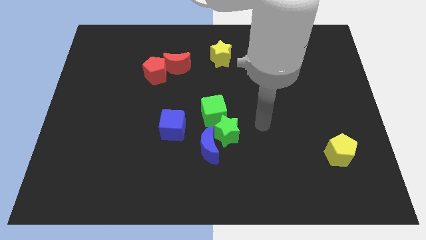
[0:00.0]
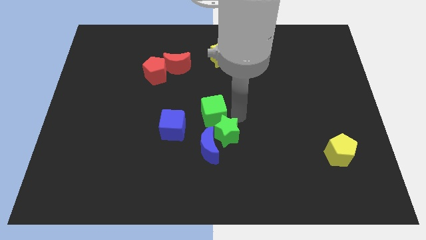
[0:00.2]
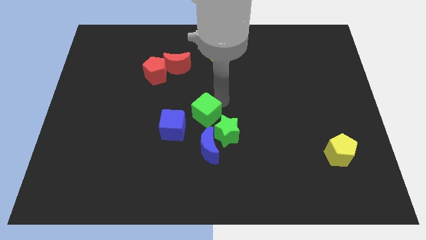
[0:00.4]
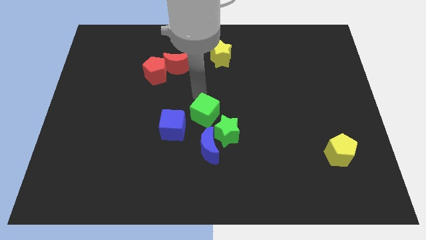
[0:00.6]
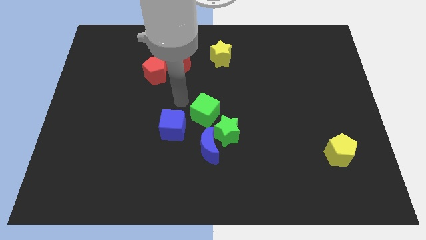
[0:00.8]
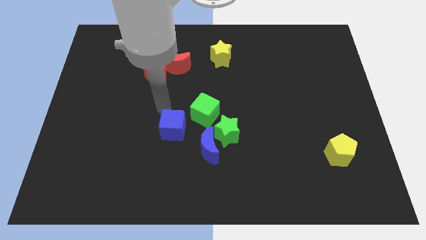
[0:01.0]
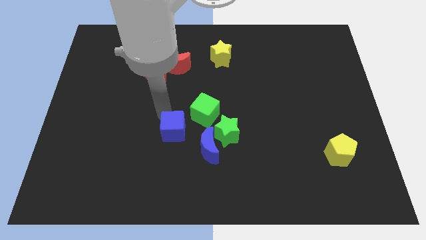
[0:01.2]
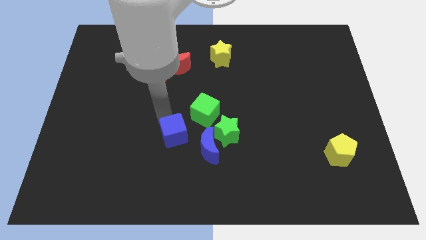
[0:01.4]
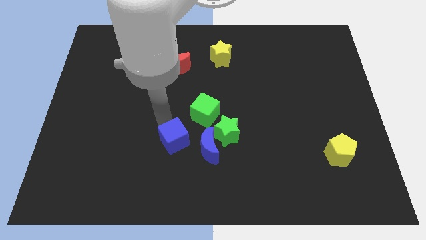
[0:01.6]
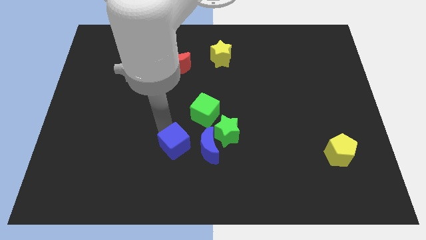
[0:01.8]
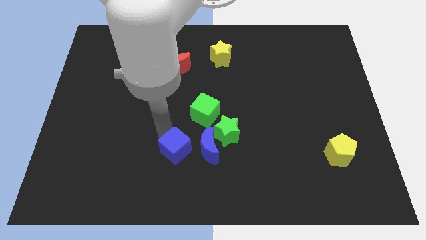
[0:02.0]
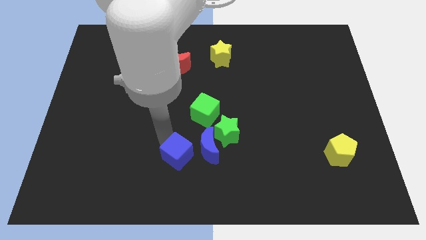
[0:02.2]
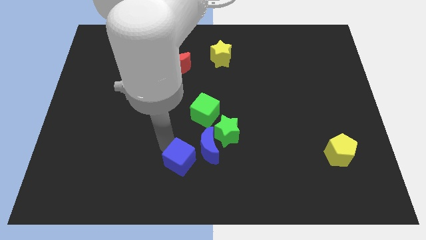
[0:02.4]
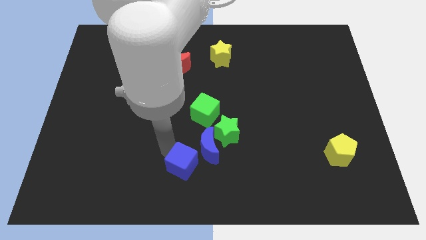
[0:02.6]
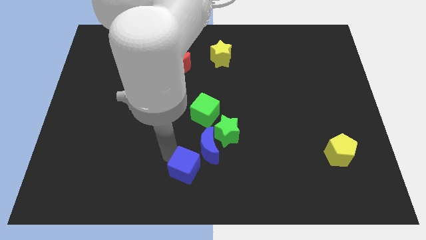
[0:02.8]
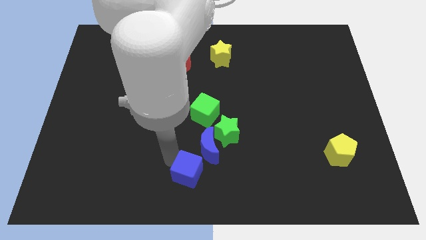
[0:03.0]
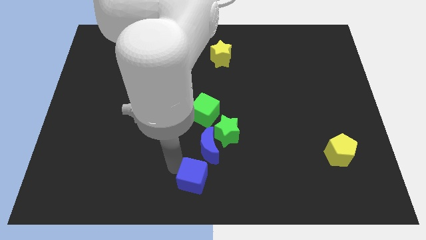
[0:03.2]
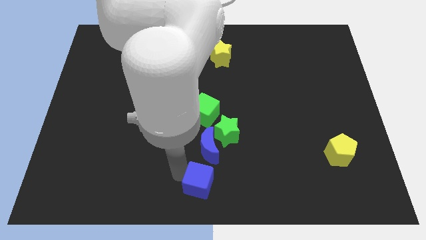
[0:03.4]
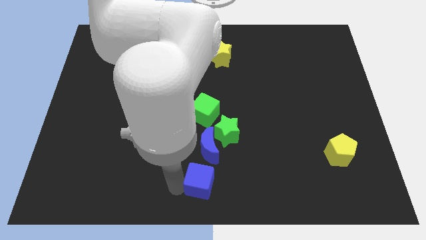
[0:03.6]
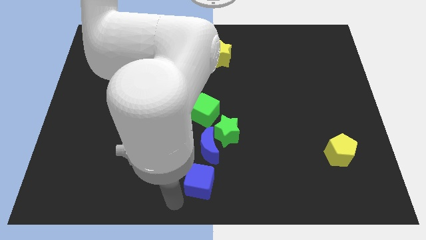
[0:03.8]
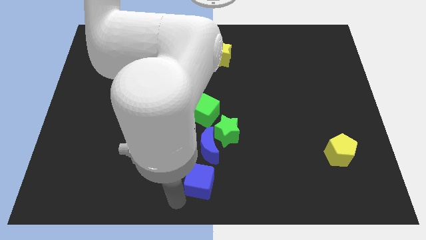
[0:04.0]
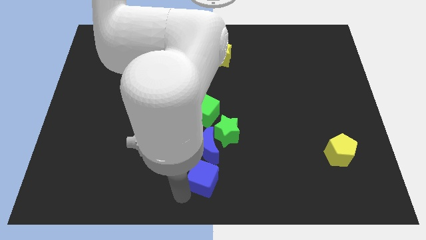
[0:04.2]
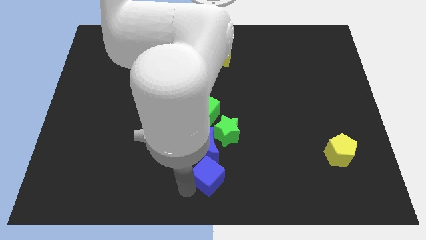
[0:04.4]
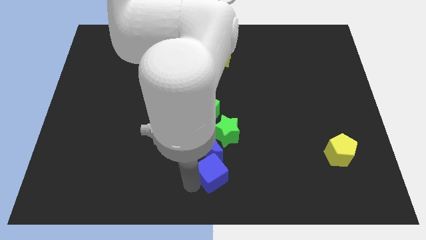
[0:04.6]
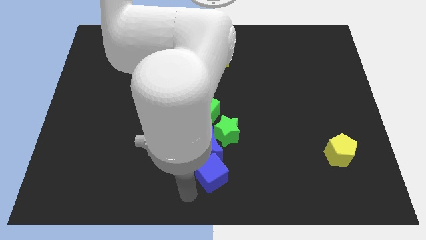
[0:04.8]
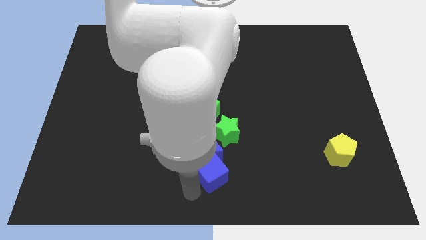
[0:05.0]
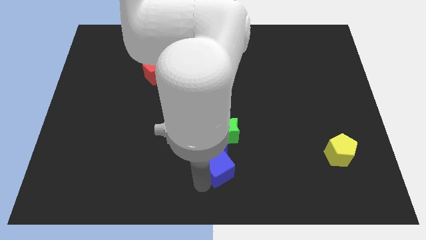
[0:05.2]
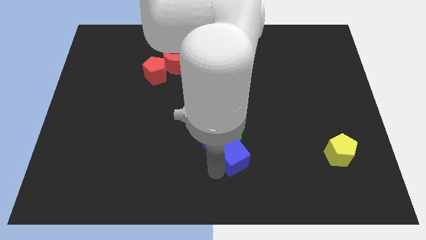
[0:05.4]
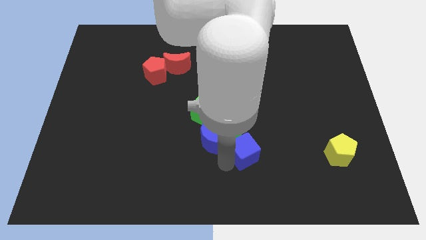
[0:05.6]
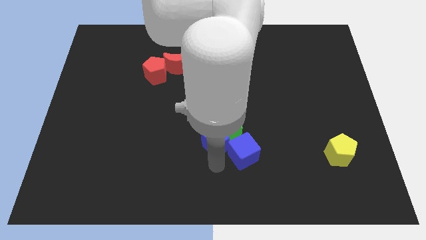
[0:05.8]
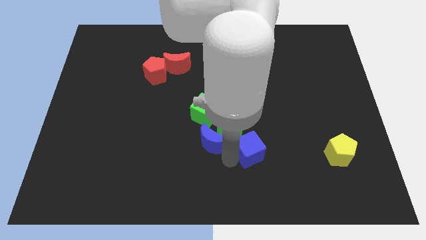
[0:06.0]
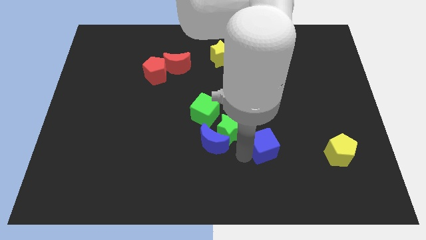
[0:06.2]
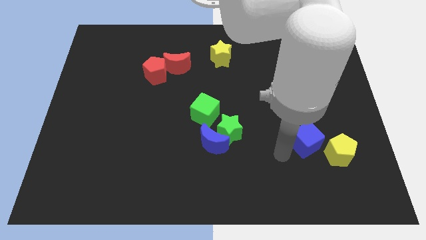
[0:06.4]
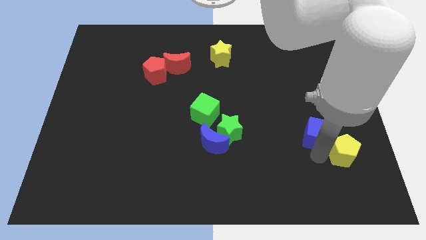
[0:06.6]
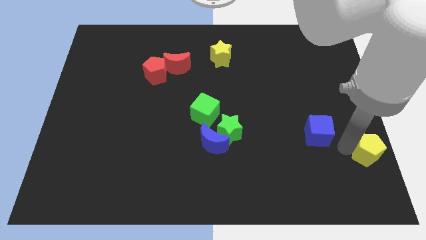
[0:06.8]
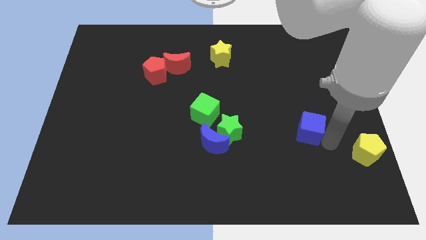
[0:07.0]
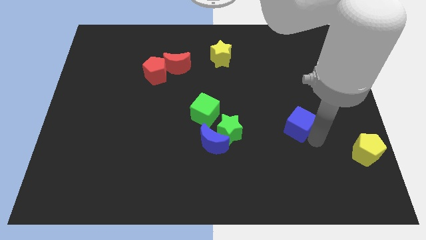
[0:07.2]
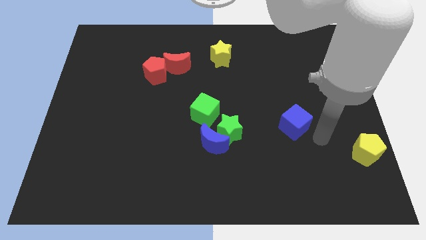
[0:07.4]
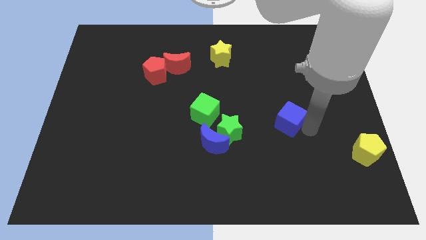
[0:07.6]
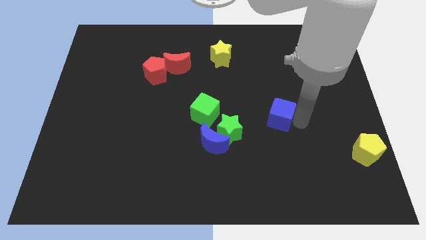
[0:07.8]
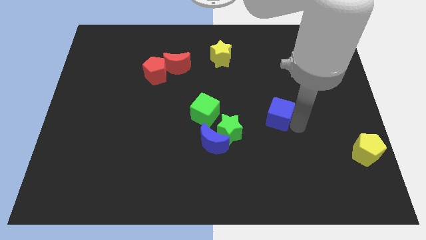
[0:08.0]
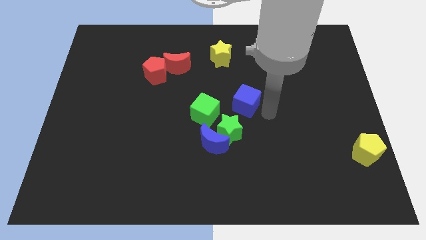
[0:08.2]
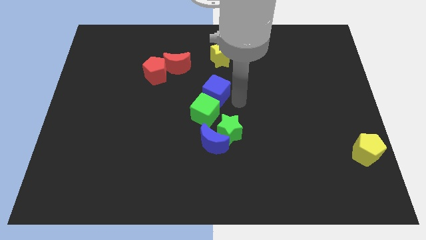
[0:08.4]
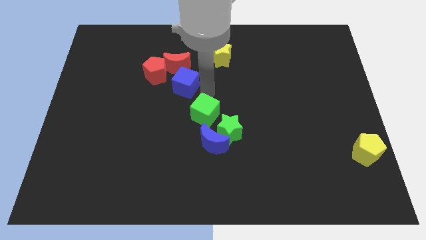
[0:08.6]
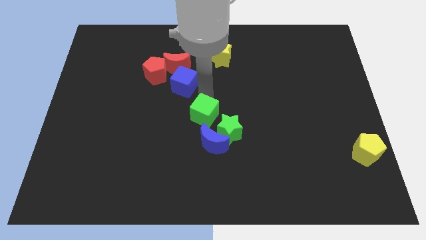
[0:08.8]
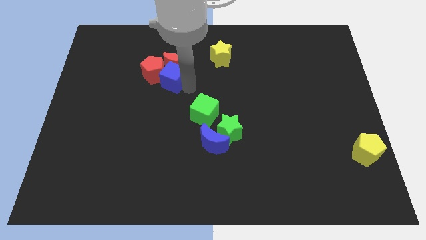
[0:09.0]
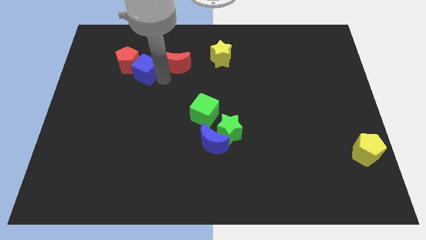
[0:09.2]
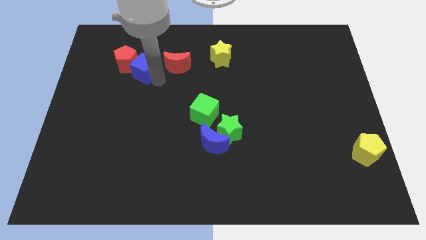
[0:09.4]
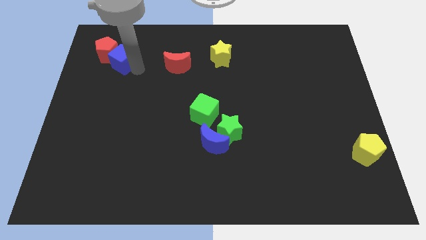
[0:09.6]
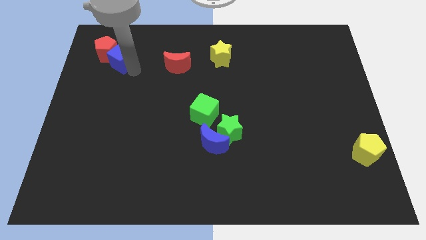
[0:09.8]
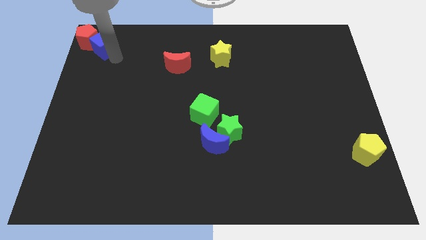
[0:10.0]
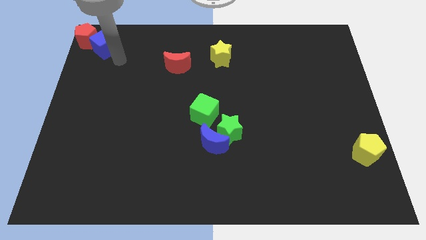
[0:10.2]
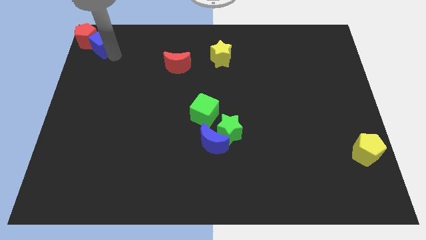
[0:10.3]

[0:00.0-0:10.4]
slide the blue cube to the top left
